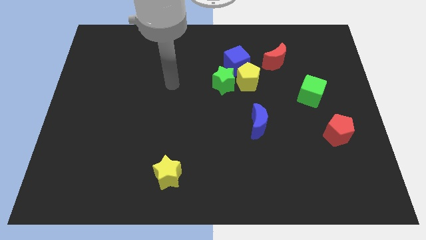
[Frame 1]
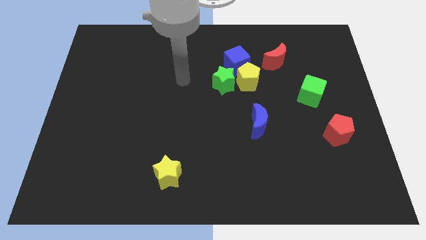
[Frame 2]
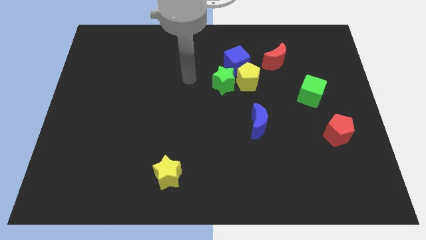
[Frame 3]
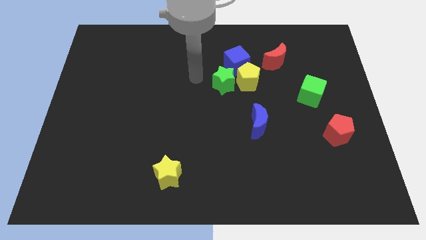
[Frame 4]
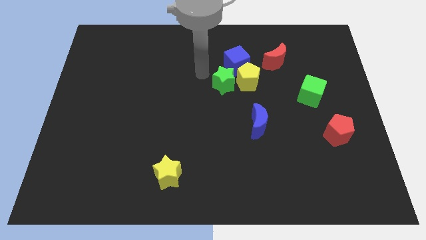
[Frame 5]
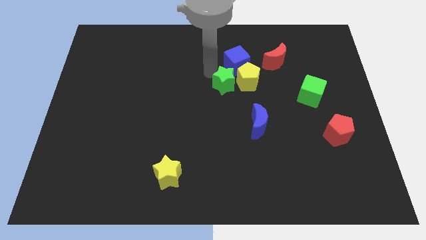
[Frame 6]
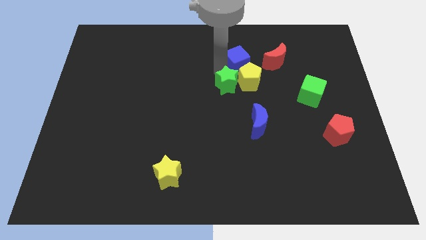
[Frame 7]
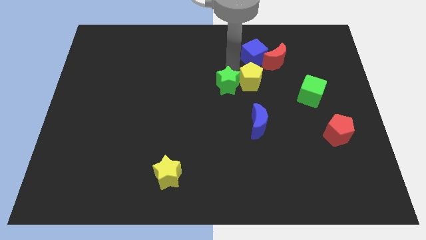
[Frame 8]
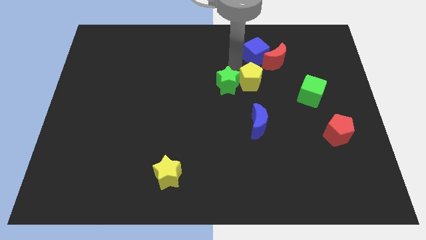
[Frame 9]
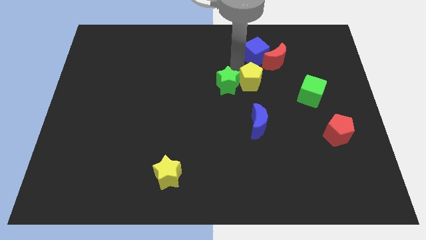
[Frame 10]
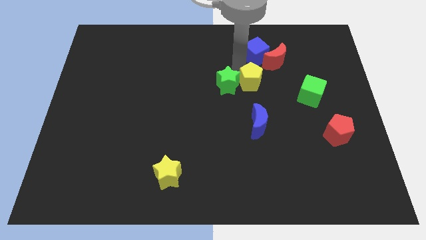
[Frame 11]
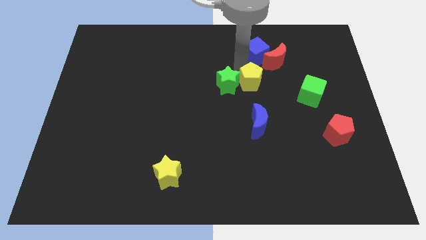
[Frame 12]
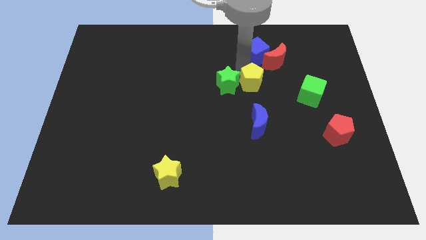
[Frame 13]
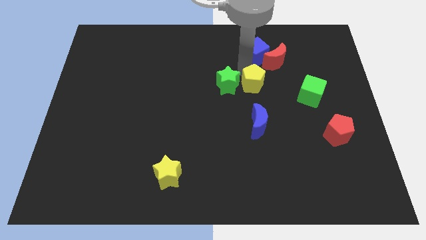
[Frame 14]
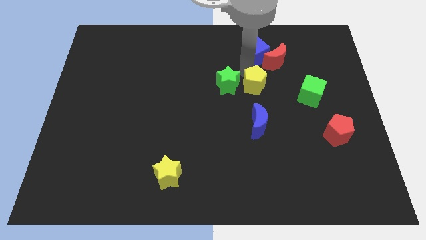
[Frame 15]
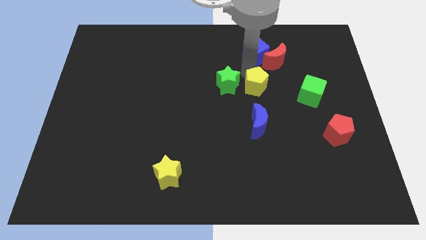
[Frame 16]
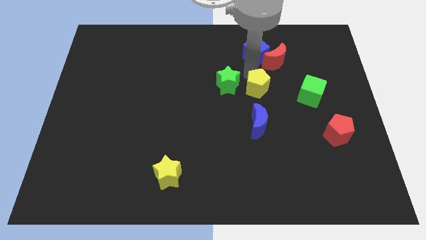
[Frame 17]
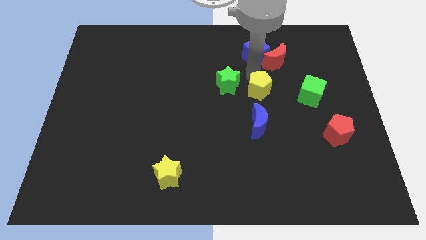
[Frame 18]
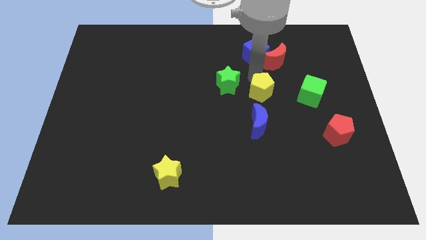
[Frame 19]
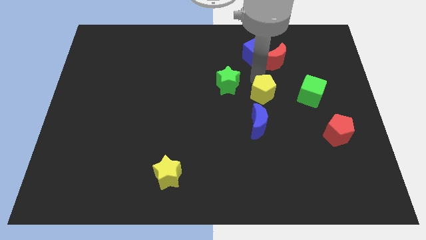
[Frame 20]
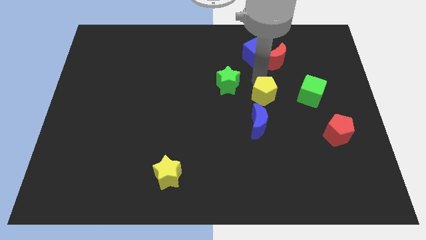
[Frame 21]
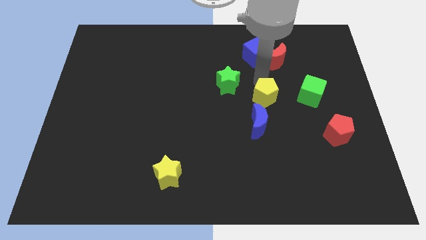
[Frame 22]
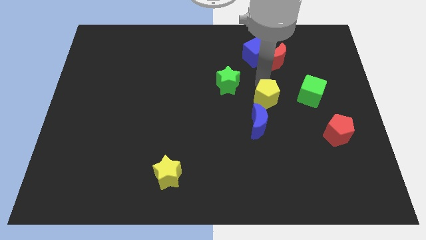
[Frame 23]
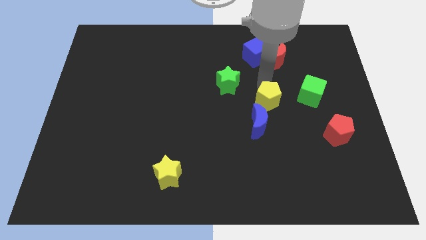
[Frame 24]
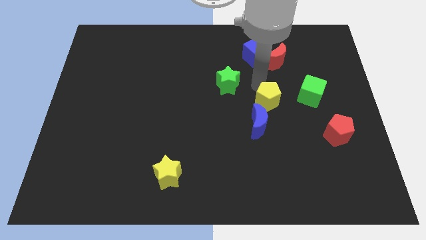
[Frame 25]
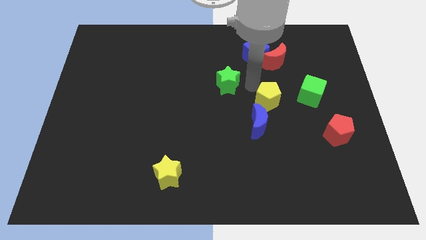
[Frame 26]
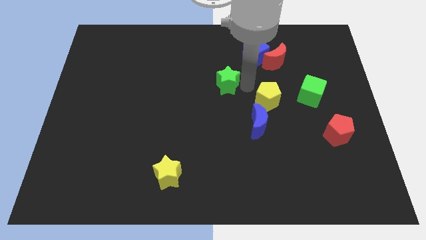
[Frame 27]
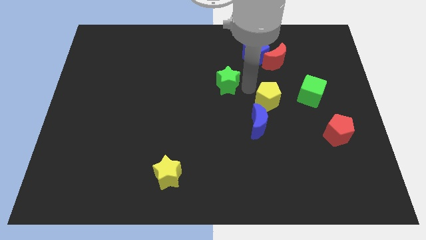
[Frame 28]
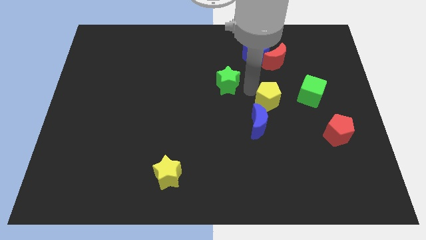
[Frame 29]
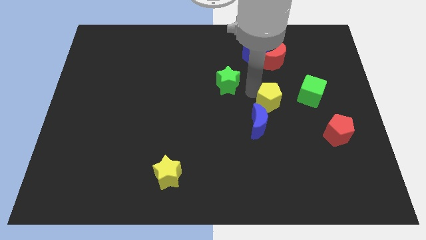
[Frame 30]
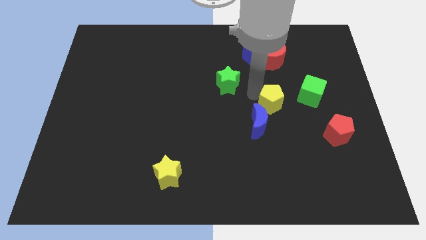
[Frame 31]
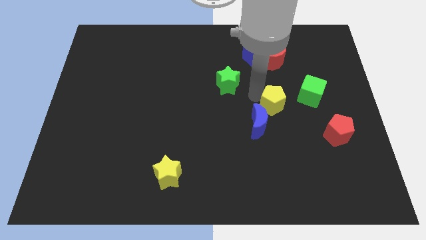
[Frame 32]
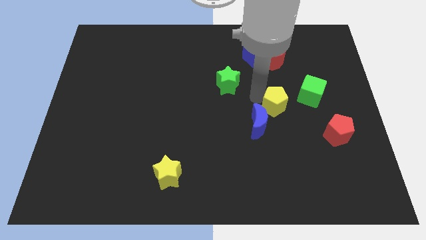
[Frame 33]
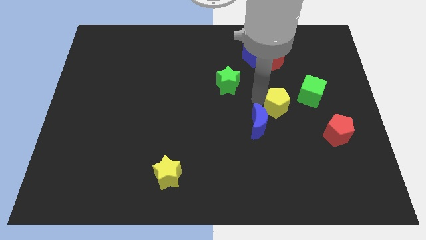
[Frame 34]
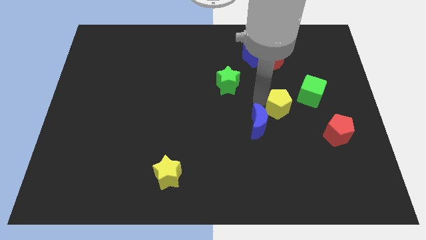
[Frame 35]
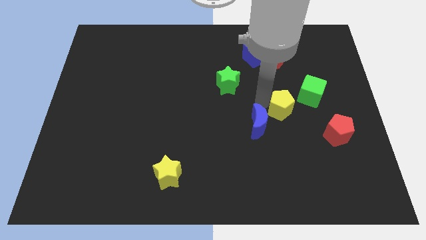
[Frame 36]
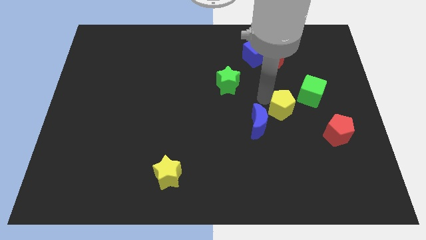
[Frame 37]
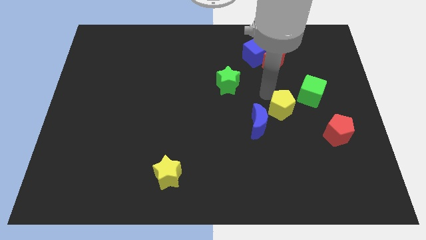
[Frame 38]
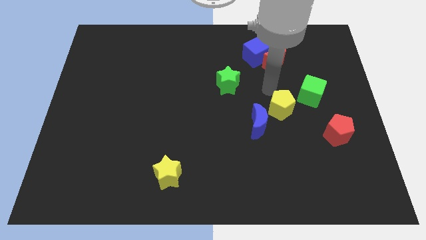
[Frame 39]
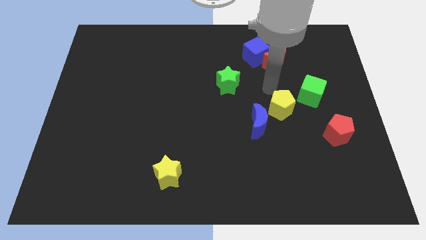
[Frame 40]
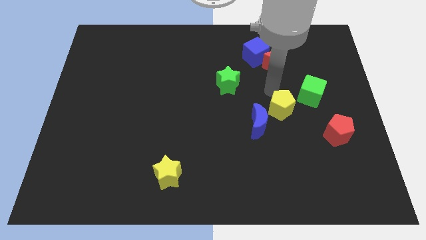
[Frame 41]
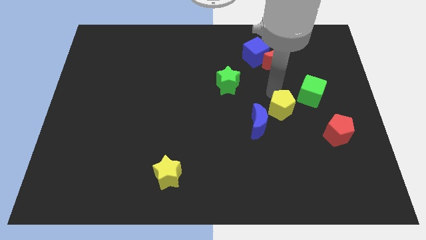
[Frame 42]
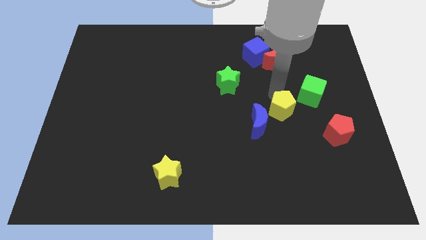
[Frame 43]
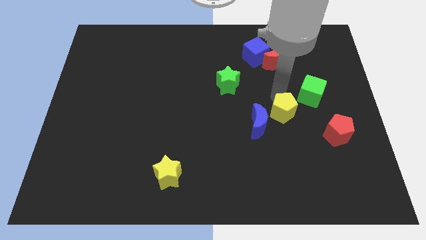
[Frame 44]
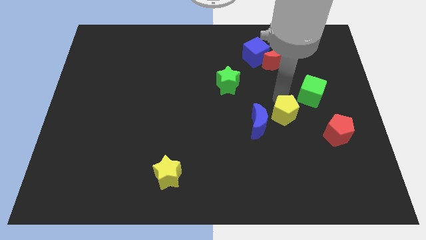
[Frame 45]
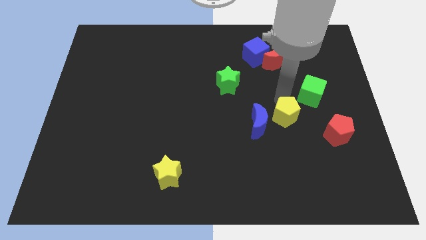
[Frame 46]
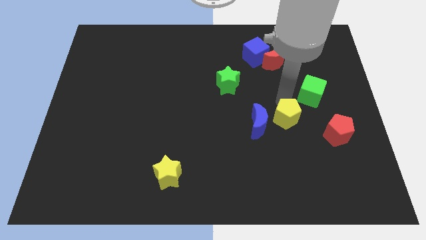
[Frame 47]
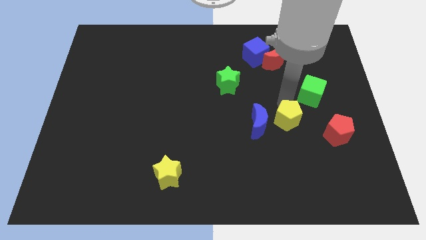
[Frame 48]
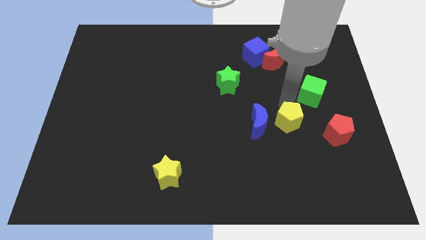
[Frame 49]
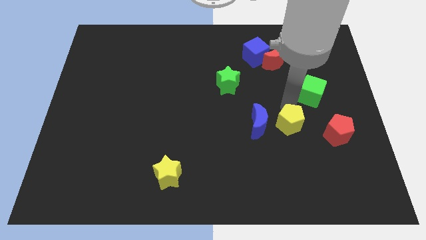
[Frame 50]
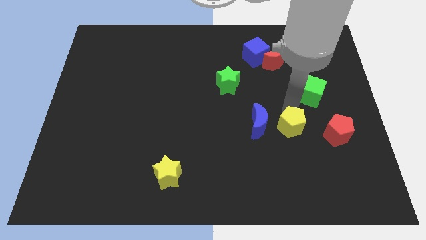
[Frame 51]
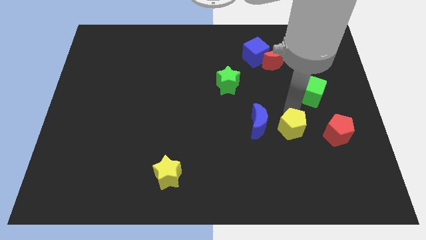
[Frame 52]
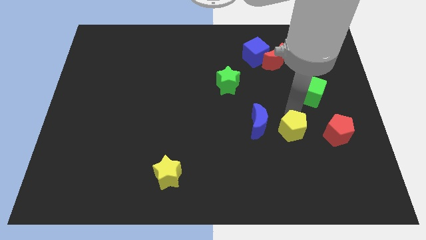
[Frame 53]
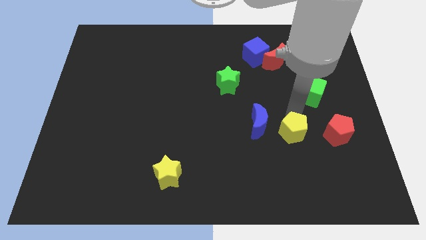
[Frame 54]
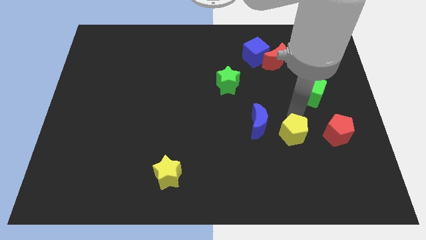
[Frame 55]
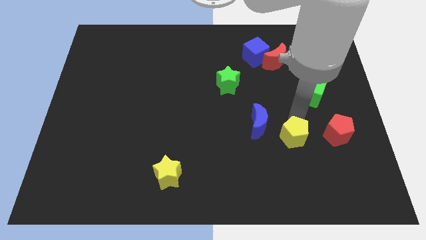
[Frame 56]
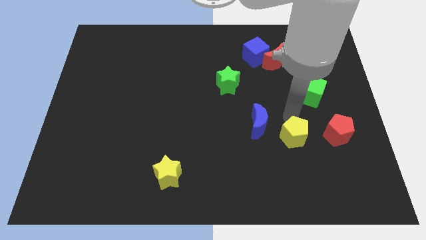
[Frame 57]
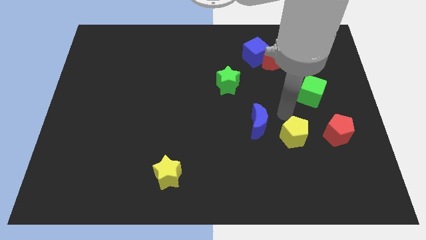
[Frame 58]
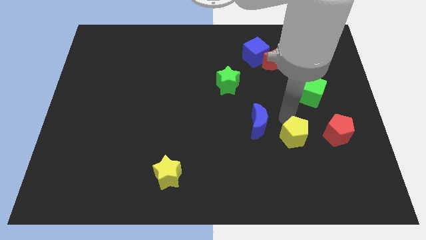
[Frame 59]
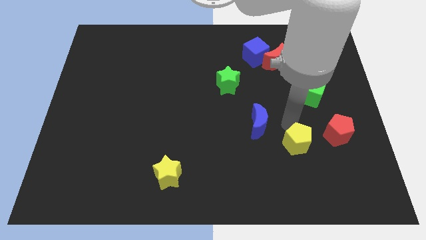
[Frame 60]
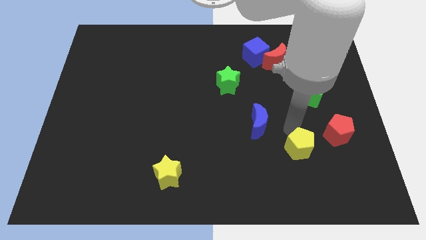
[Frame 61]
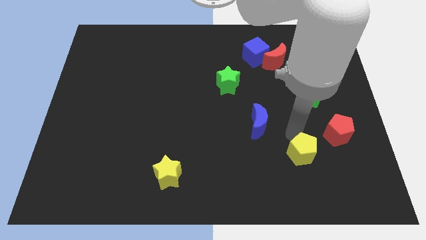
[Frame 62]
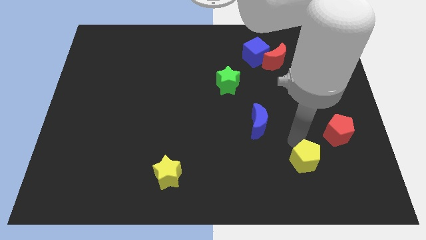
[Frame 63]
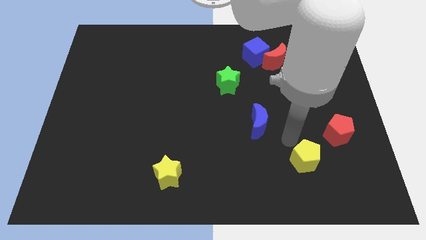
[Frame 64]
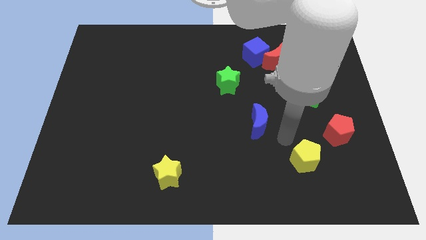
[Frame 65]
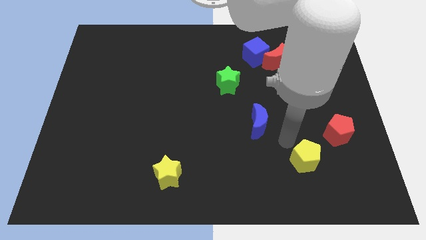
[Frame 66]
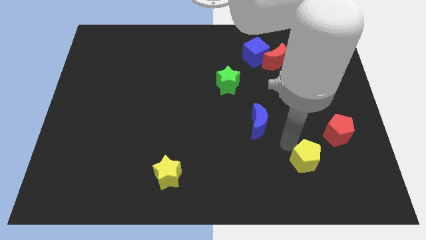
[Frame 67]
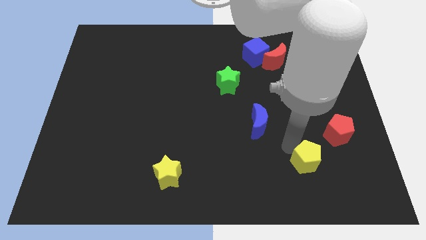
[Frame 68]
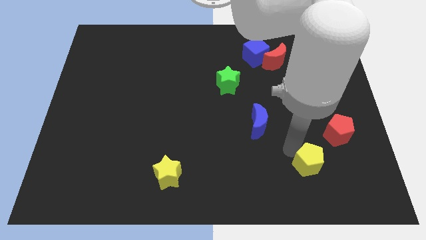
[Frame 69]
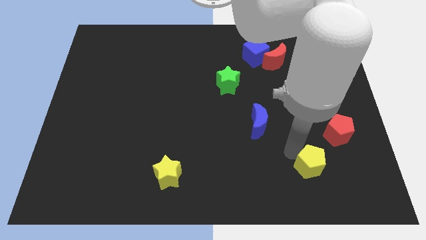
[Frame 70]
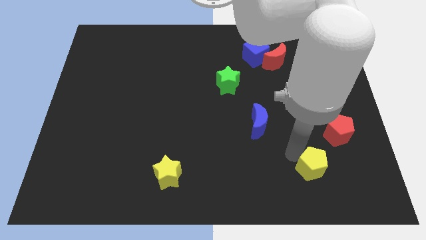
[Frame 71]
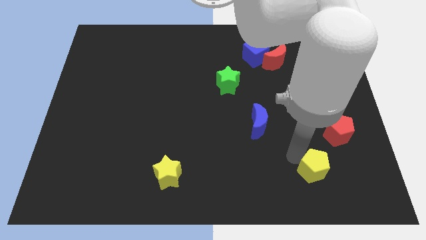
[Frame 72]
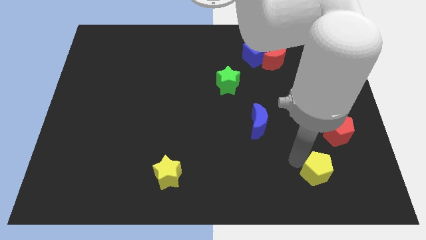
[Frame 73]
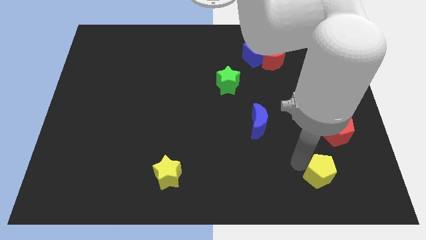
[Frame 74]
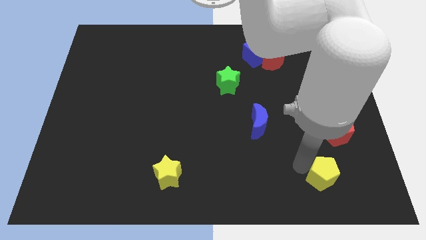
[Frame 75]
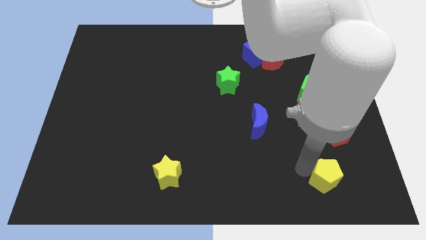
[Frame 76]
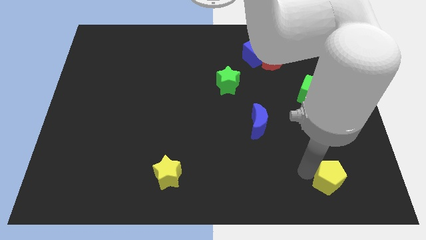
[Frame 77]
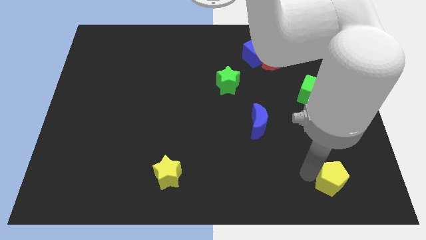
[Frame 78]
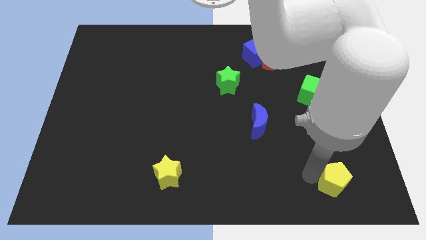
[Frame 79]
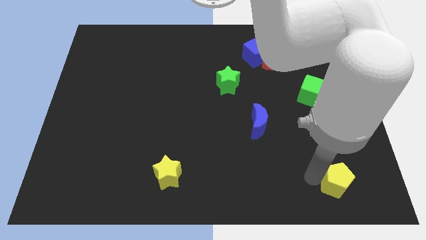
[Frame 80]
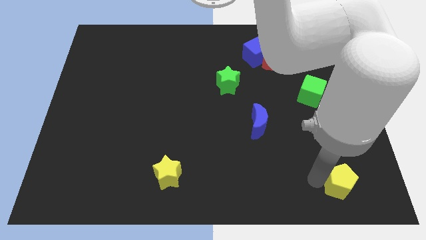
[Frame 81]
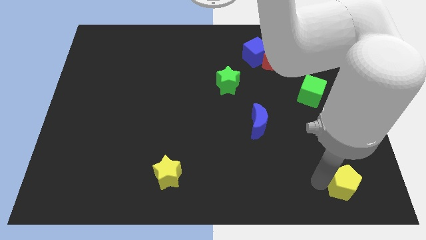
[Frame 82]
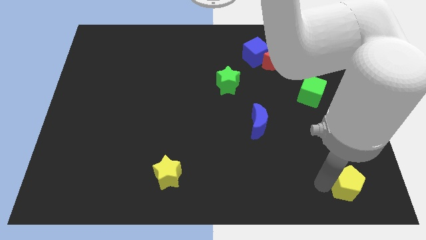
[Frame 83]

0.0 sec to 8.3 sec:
push the yellow pentagon to the bottom right corner
